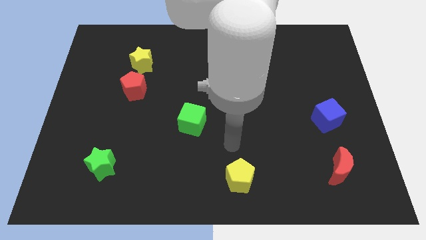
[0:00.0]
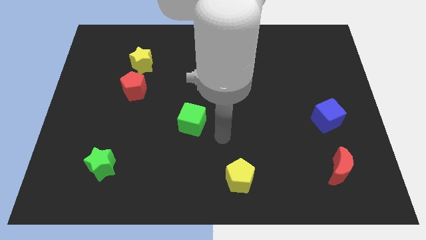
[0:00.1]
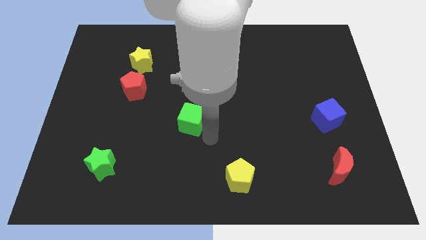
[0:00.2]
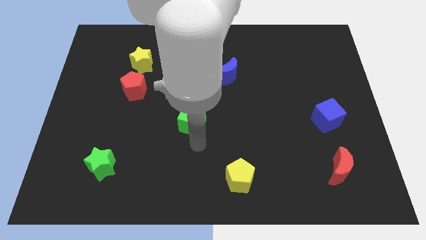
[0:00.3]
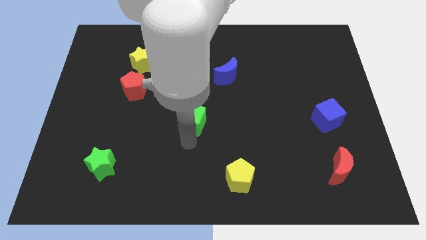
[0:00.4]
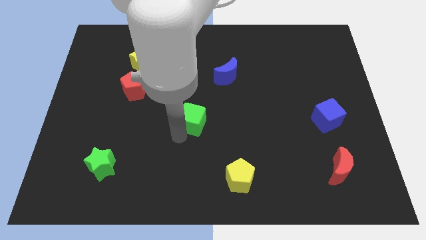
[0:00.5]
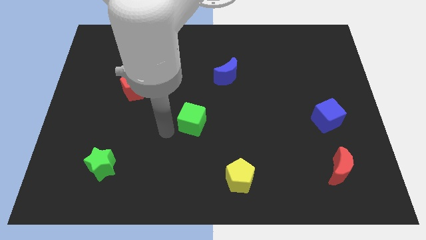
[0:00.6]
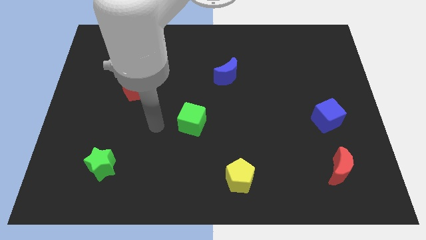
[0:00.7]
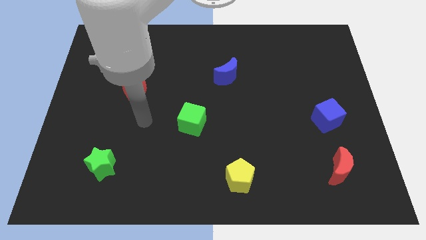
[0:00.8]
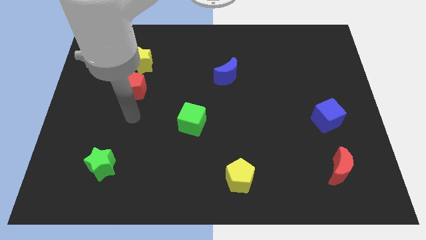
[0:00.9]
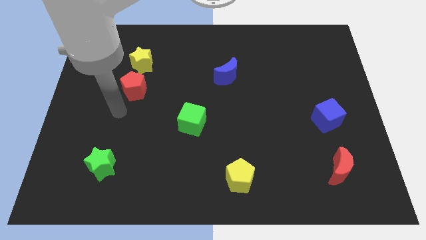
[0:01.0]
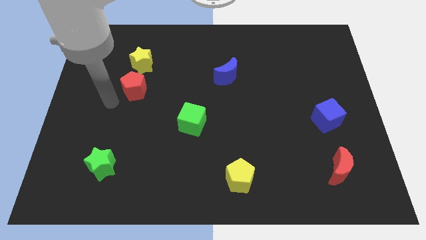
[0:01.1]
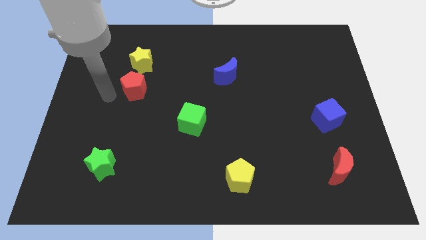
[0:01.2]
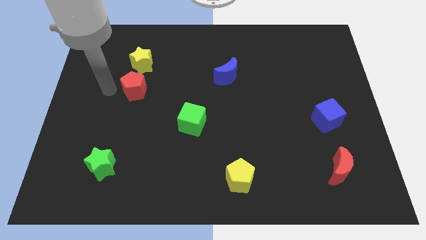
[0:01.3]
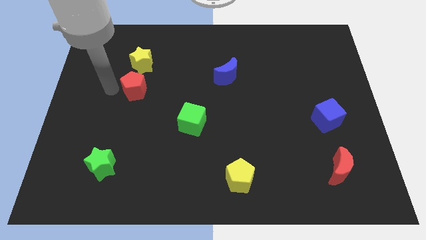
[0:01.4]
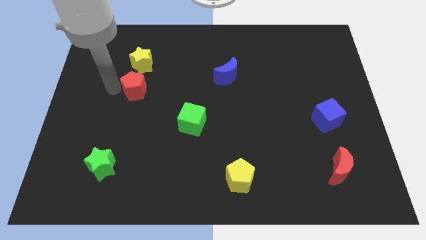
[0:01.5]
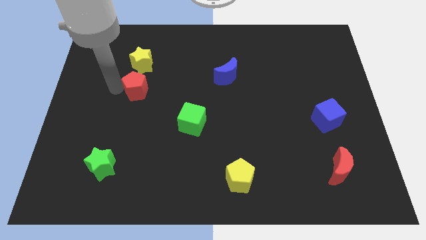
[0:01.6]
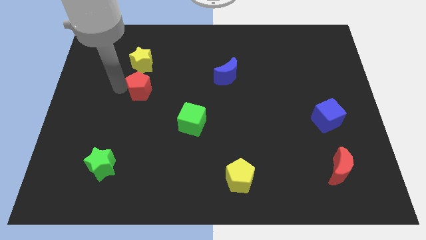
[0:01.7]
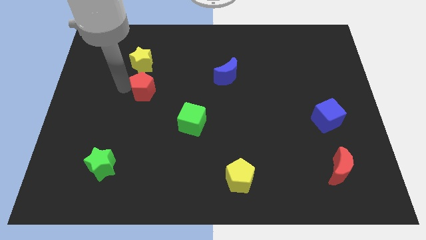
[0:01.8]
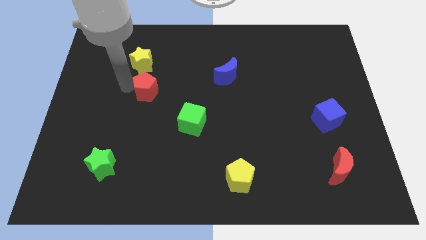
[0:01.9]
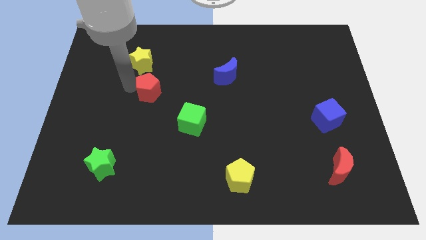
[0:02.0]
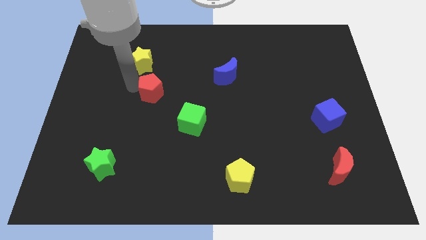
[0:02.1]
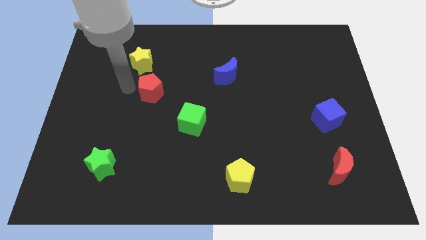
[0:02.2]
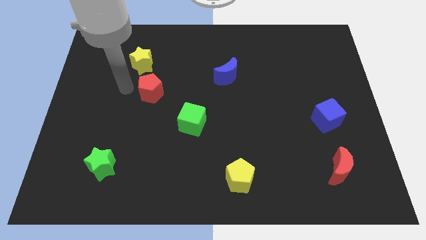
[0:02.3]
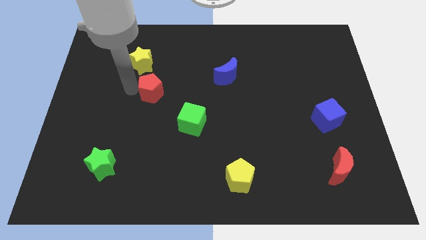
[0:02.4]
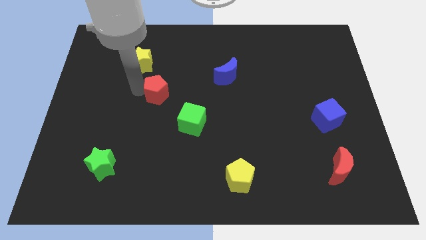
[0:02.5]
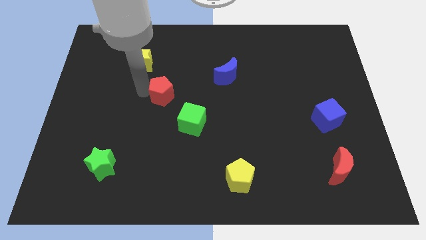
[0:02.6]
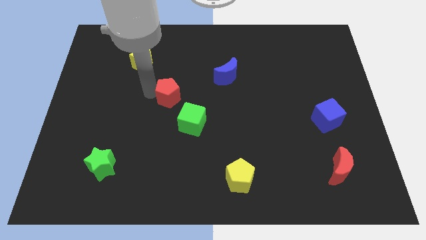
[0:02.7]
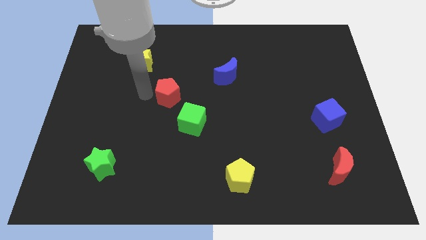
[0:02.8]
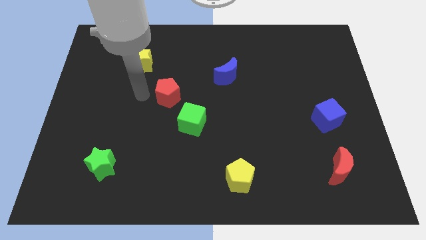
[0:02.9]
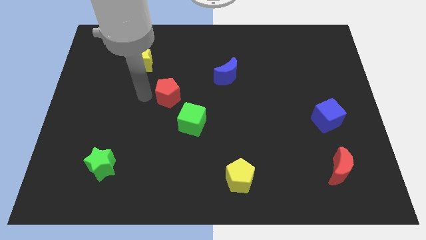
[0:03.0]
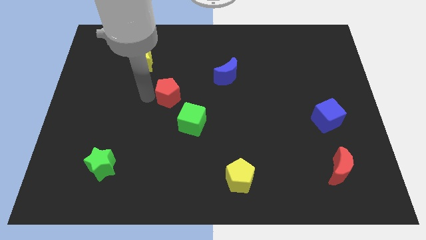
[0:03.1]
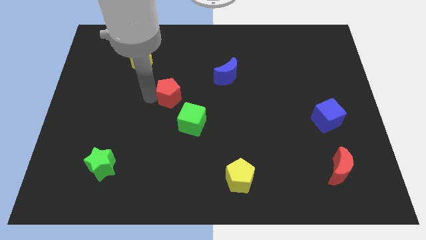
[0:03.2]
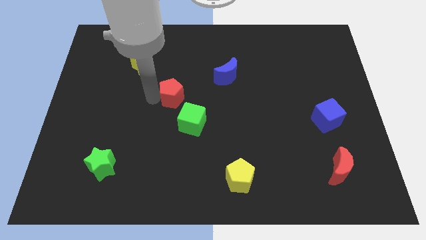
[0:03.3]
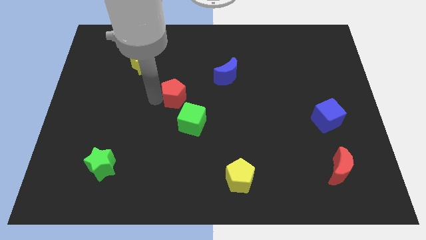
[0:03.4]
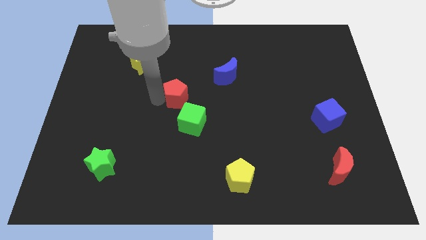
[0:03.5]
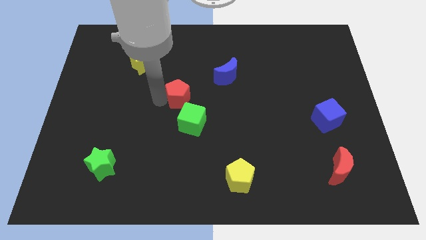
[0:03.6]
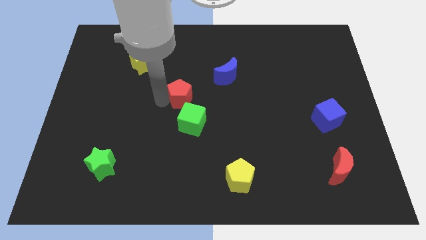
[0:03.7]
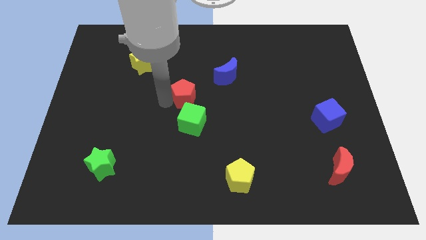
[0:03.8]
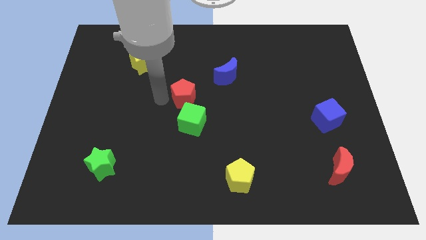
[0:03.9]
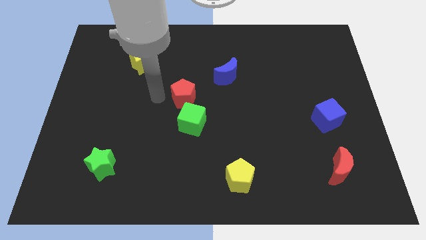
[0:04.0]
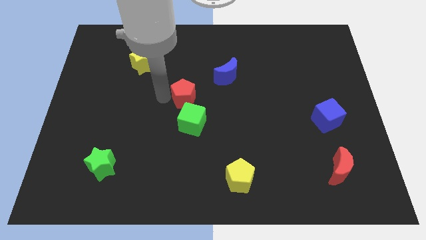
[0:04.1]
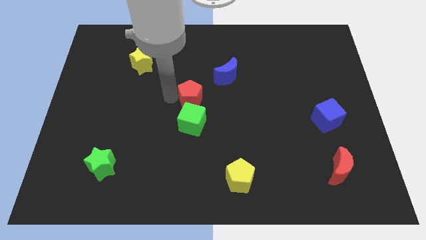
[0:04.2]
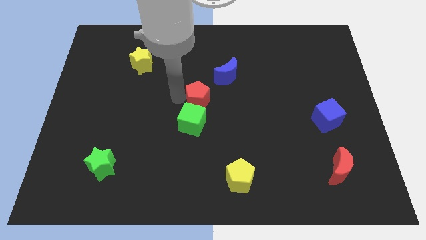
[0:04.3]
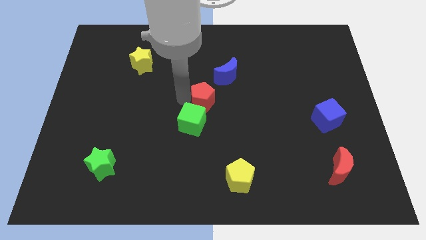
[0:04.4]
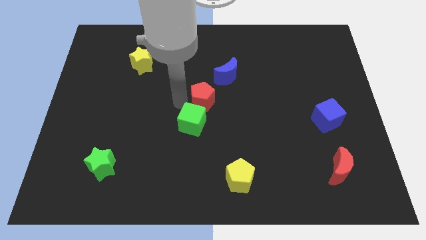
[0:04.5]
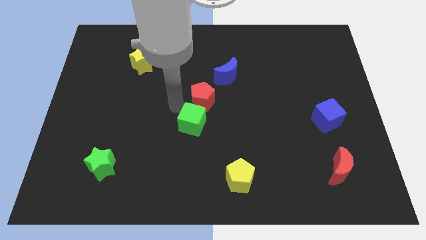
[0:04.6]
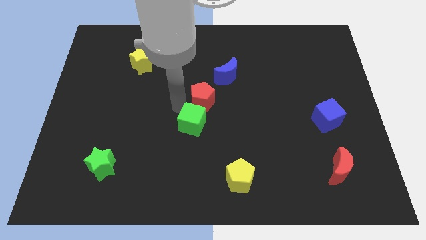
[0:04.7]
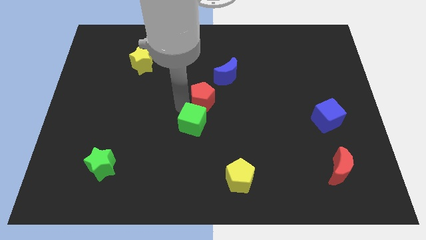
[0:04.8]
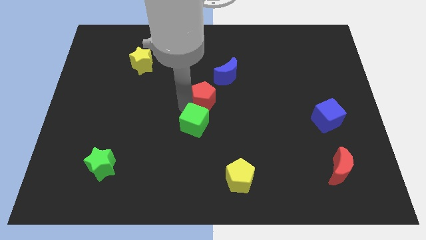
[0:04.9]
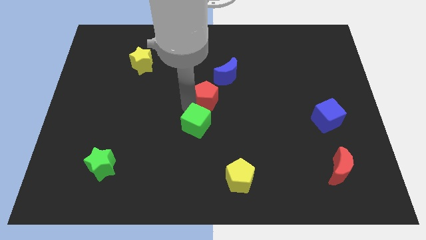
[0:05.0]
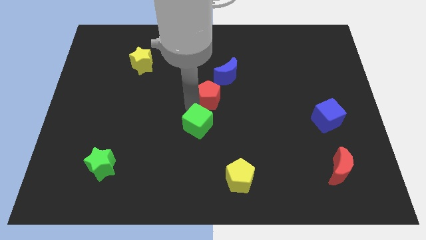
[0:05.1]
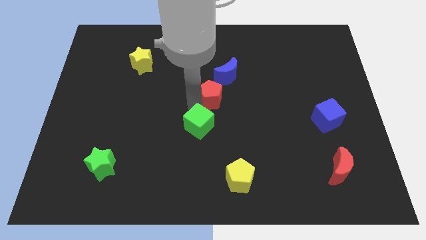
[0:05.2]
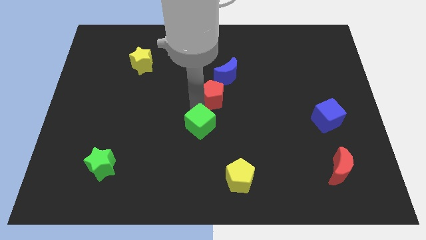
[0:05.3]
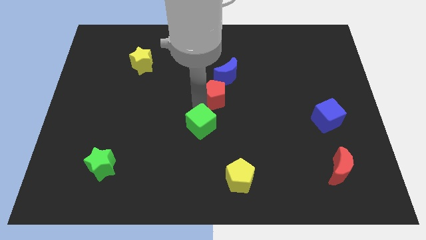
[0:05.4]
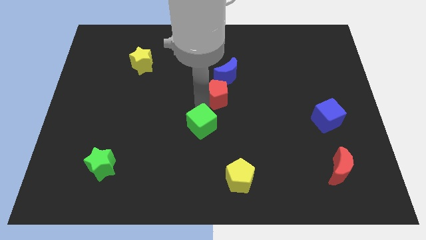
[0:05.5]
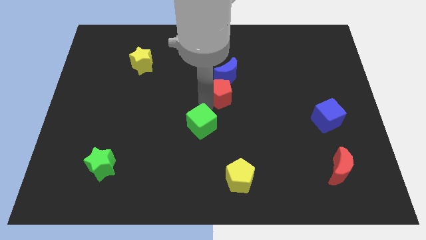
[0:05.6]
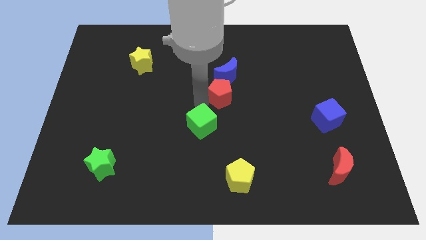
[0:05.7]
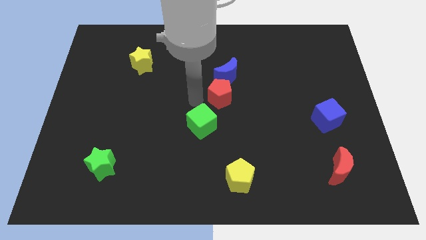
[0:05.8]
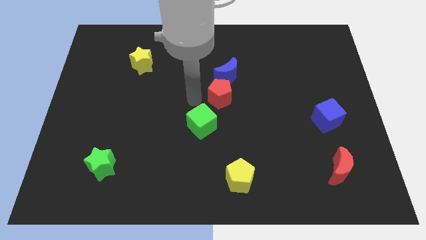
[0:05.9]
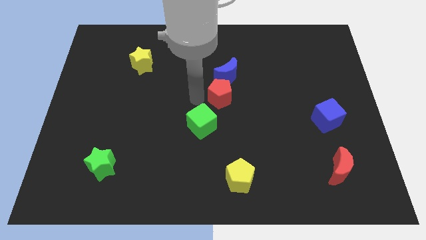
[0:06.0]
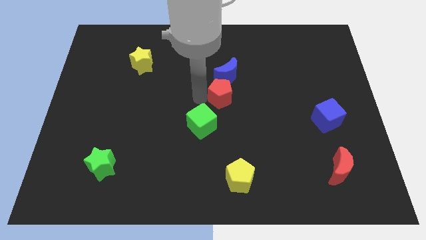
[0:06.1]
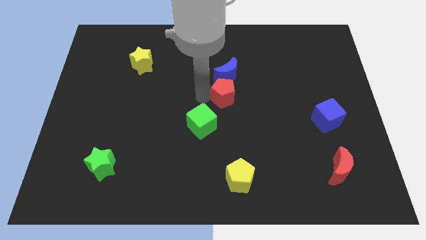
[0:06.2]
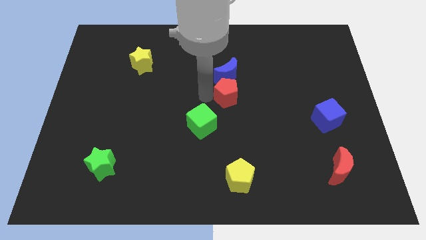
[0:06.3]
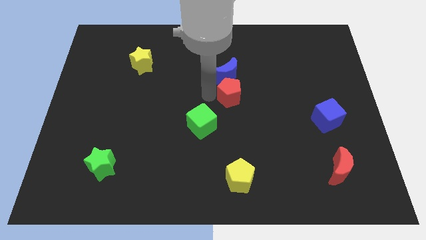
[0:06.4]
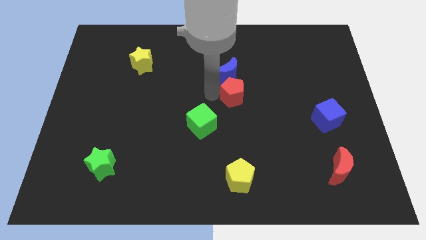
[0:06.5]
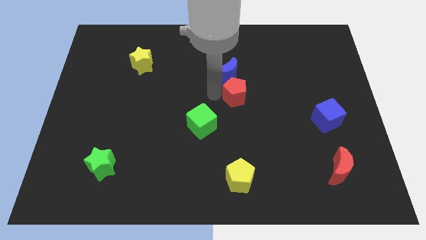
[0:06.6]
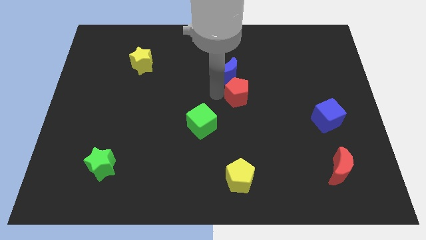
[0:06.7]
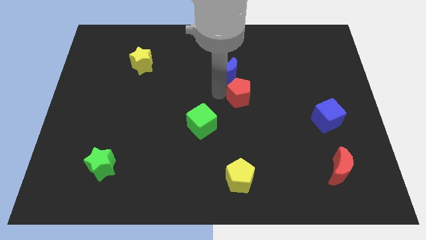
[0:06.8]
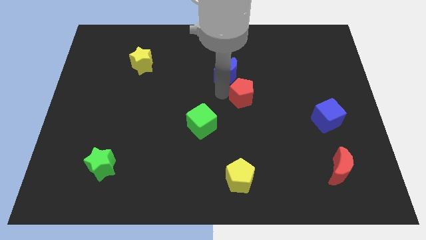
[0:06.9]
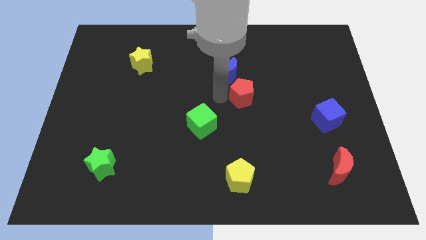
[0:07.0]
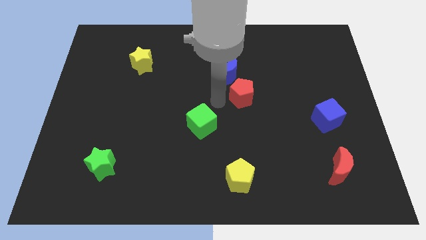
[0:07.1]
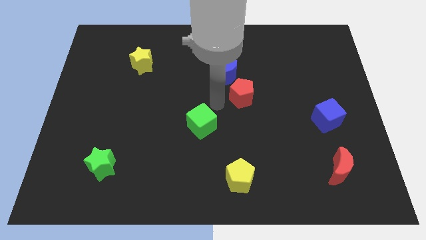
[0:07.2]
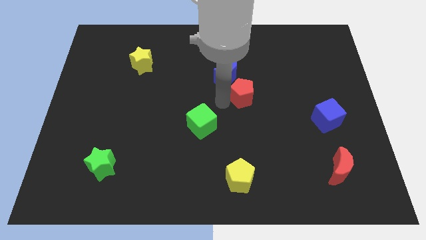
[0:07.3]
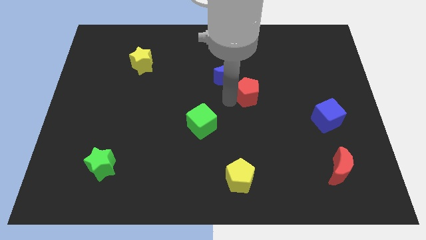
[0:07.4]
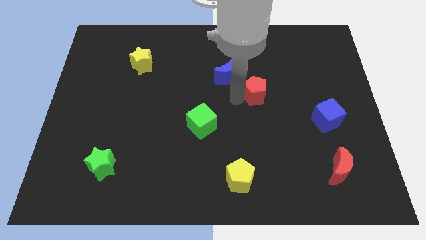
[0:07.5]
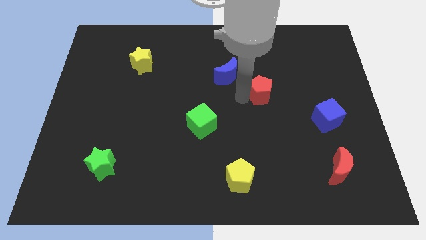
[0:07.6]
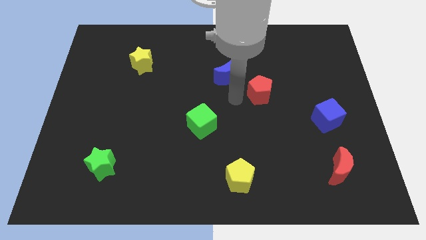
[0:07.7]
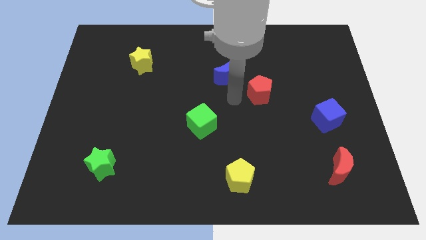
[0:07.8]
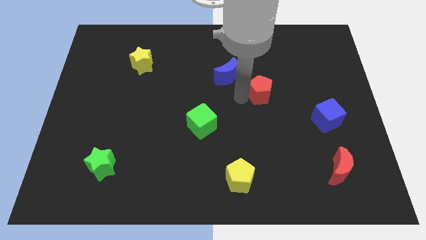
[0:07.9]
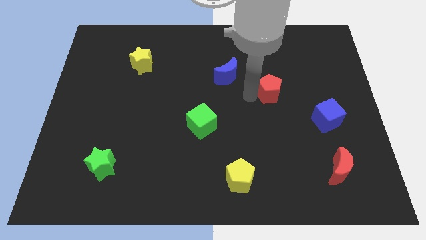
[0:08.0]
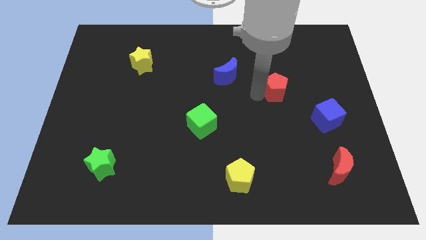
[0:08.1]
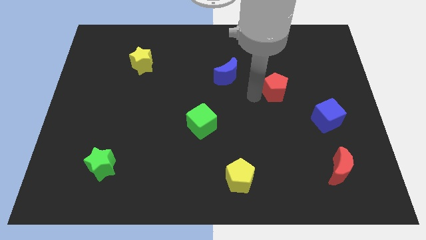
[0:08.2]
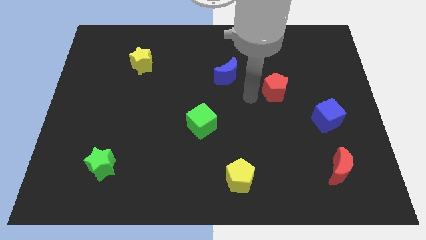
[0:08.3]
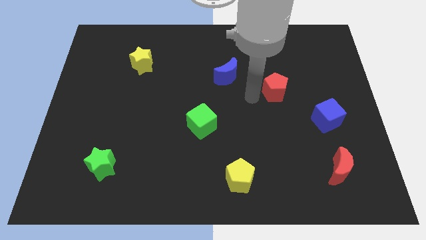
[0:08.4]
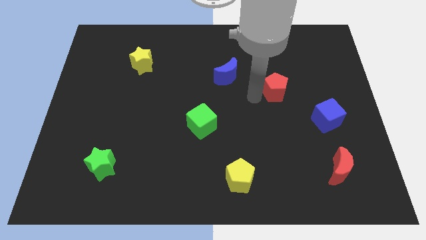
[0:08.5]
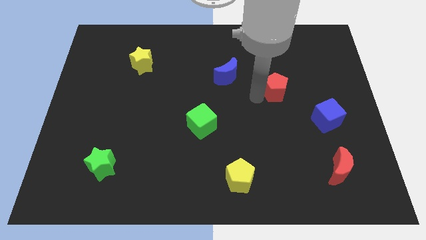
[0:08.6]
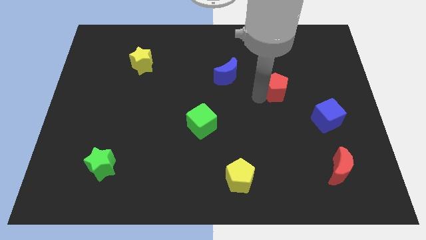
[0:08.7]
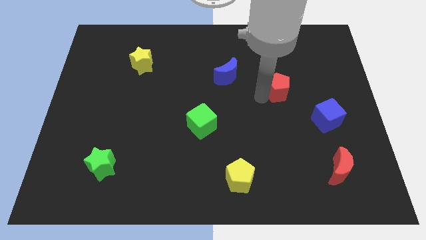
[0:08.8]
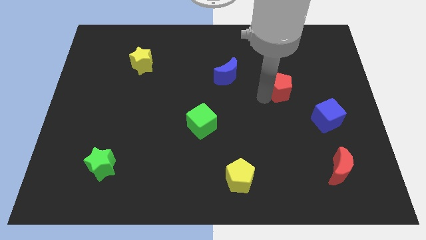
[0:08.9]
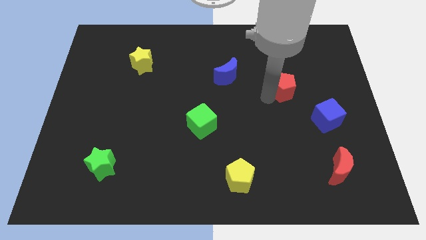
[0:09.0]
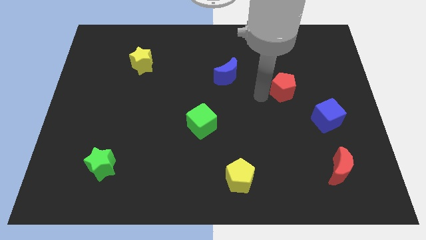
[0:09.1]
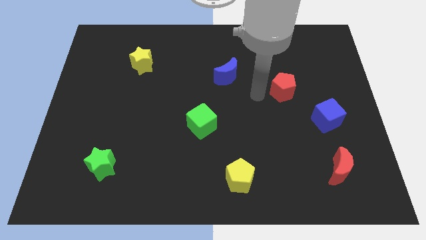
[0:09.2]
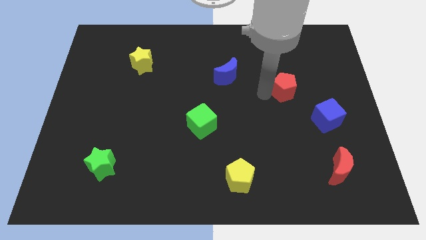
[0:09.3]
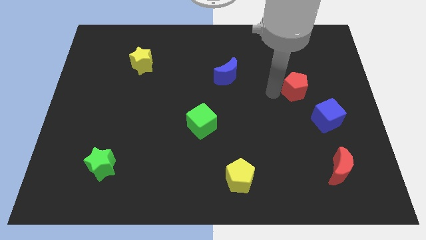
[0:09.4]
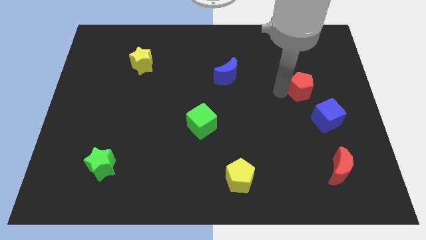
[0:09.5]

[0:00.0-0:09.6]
move the red pentagon to the top side of the blue cube
